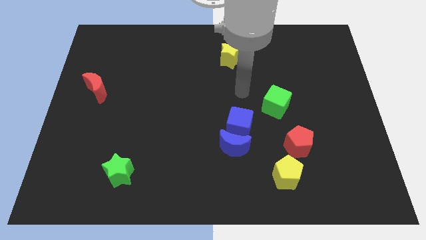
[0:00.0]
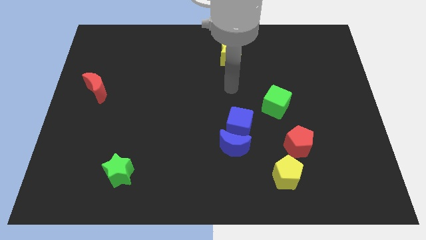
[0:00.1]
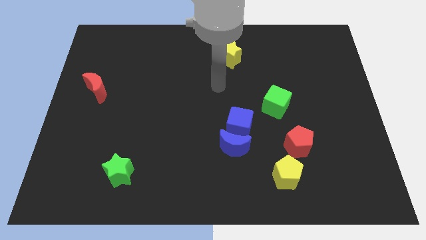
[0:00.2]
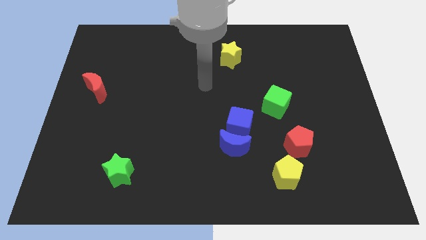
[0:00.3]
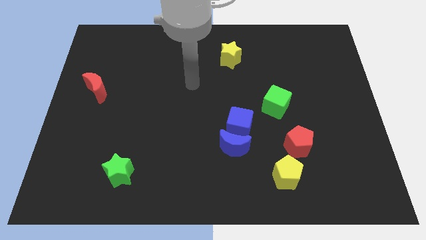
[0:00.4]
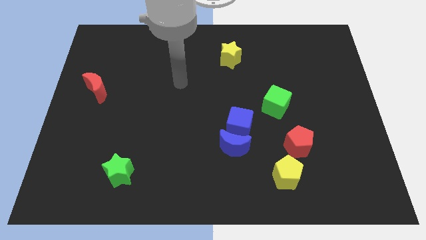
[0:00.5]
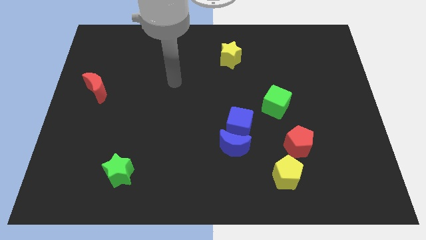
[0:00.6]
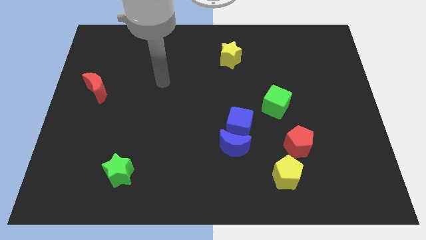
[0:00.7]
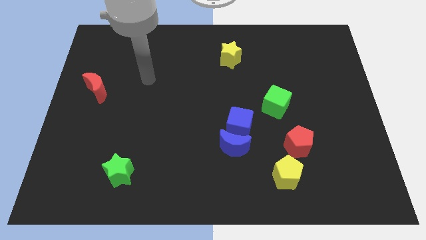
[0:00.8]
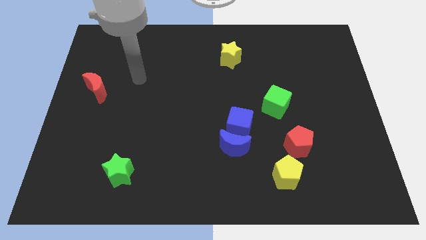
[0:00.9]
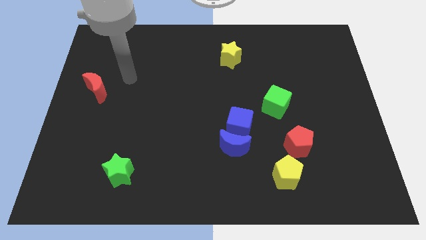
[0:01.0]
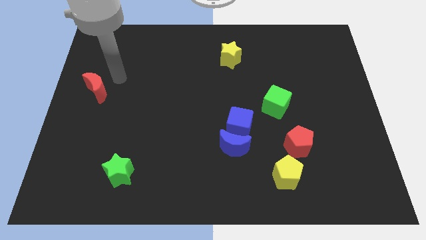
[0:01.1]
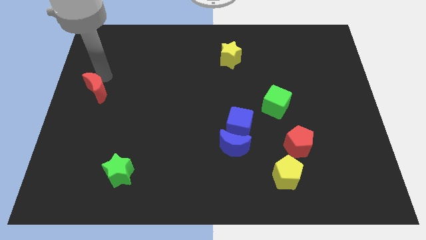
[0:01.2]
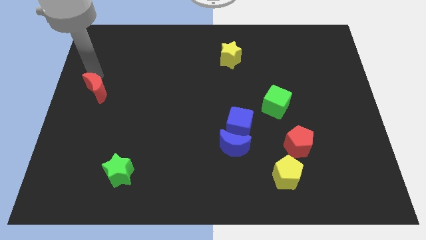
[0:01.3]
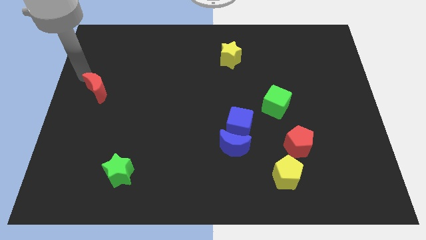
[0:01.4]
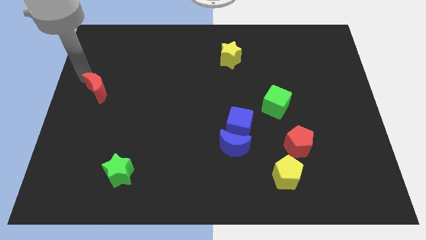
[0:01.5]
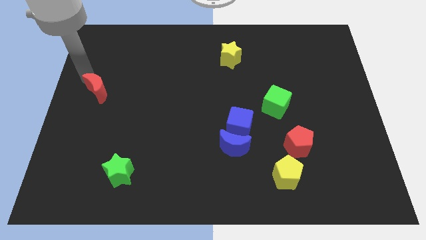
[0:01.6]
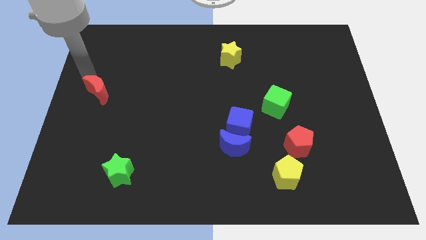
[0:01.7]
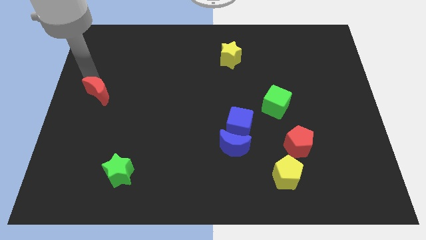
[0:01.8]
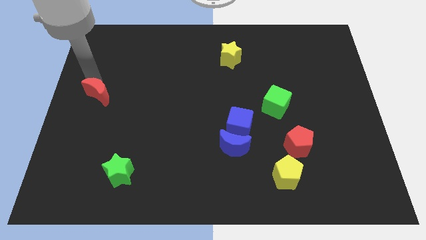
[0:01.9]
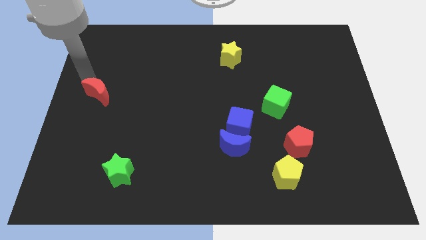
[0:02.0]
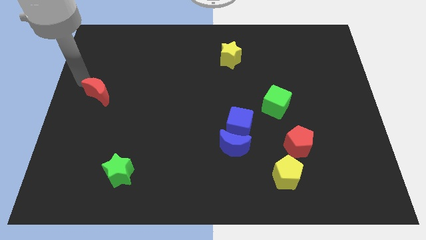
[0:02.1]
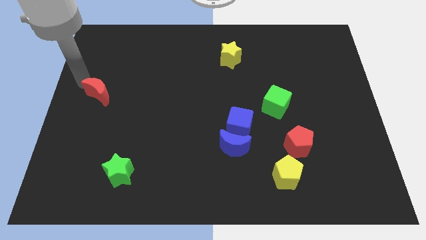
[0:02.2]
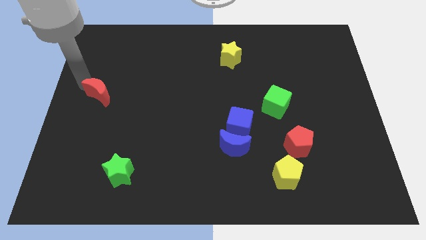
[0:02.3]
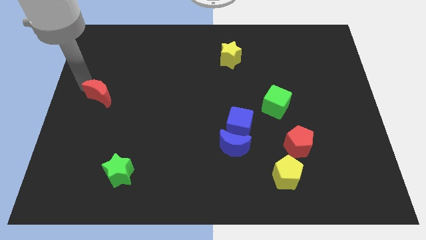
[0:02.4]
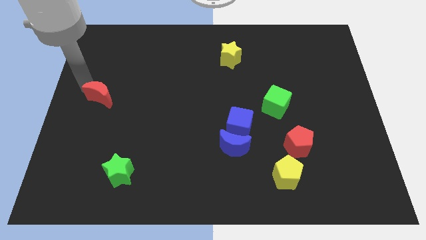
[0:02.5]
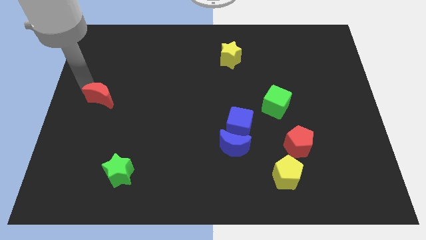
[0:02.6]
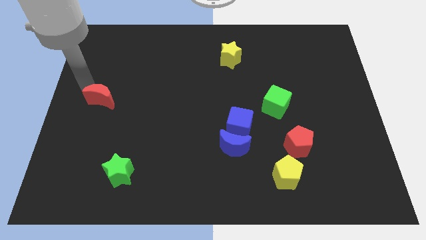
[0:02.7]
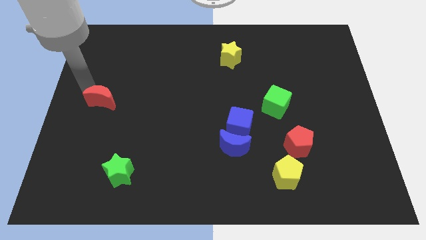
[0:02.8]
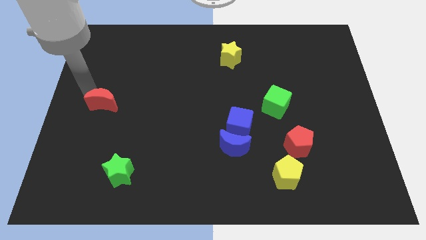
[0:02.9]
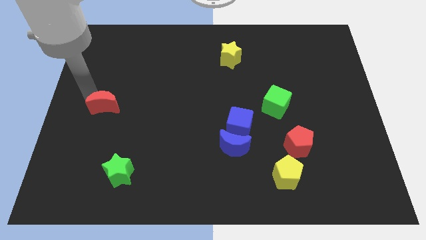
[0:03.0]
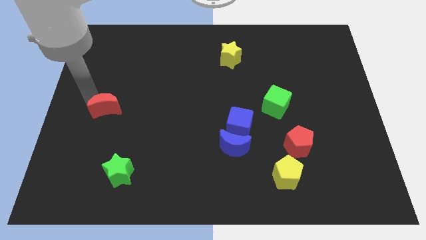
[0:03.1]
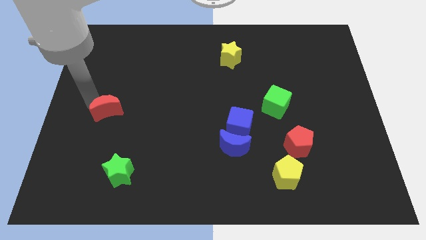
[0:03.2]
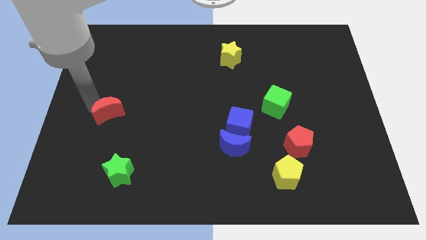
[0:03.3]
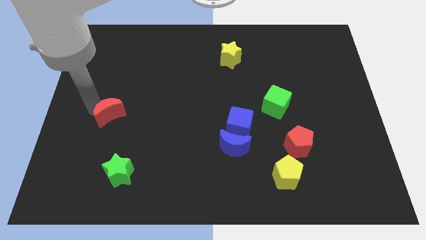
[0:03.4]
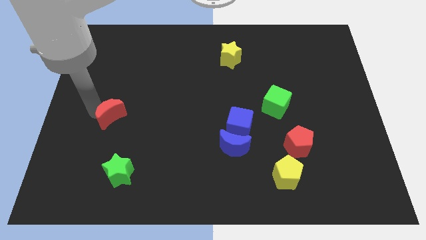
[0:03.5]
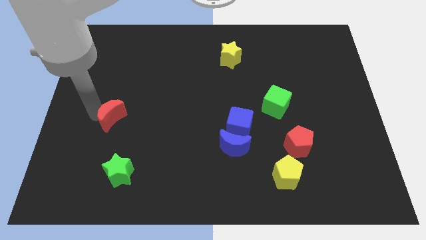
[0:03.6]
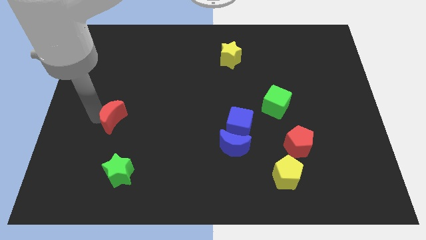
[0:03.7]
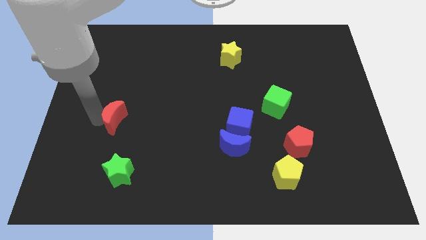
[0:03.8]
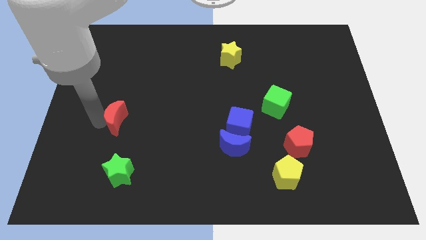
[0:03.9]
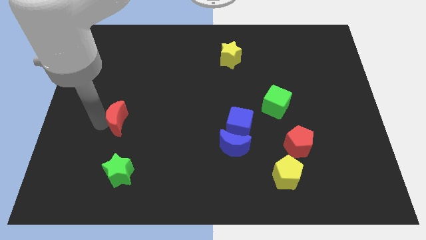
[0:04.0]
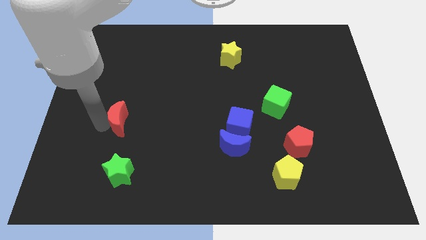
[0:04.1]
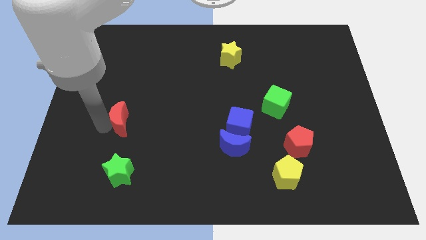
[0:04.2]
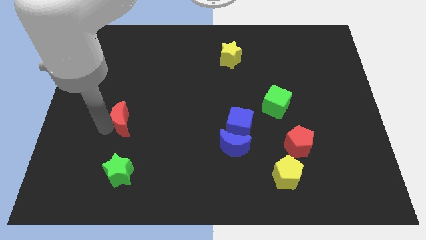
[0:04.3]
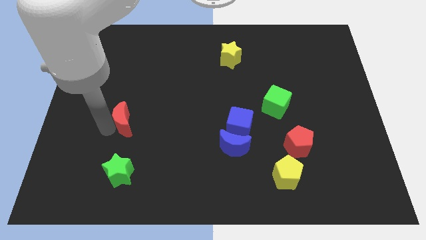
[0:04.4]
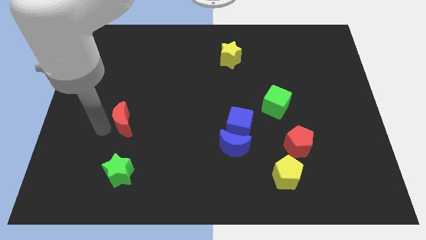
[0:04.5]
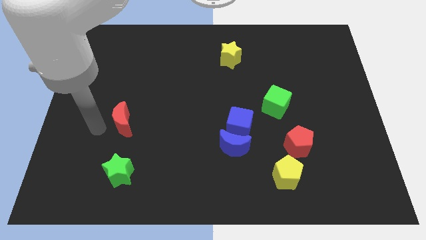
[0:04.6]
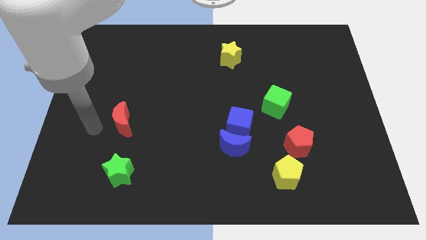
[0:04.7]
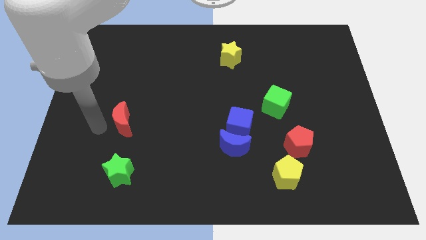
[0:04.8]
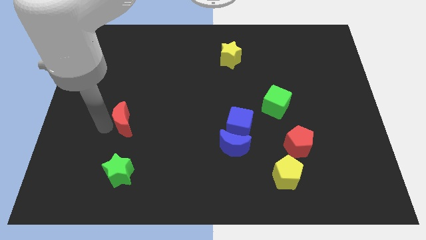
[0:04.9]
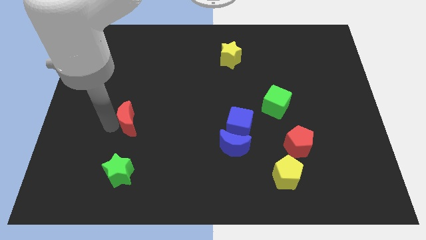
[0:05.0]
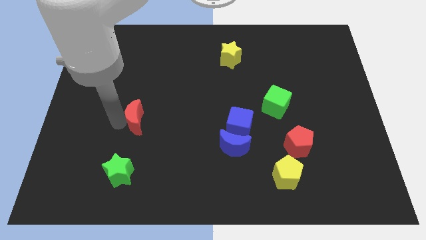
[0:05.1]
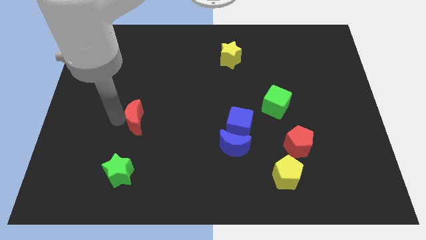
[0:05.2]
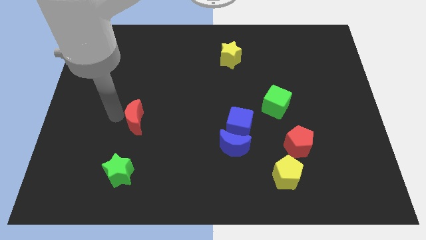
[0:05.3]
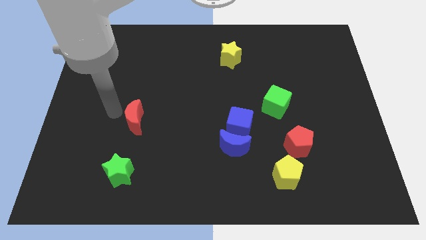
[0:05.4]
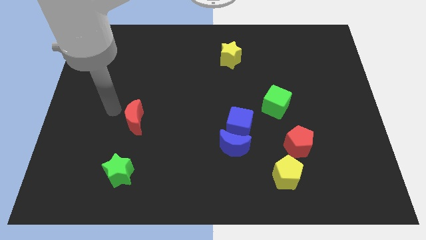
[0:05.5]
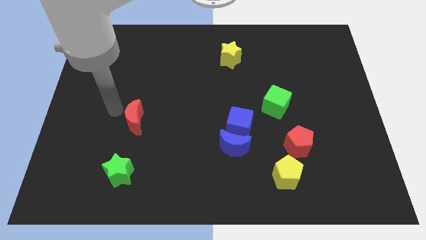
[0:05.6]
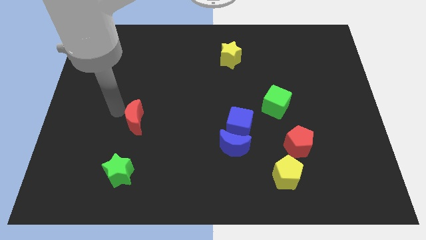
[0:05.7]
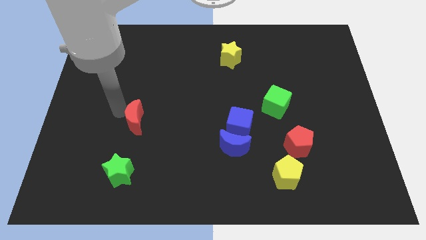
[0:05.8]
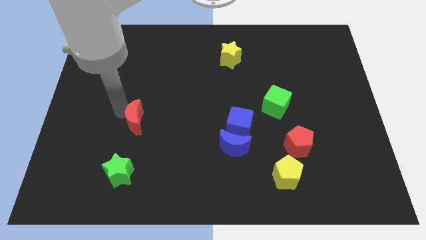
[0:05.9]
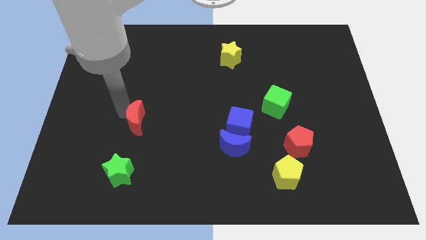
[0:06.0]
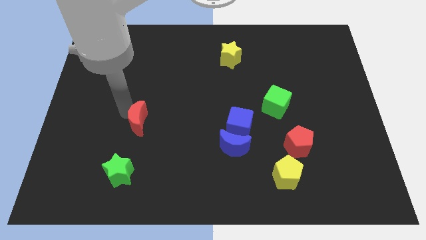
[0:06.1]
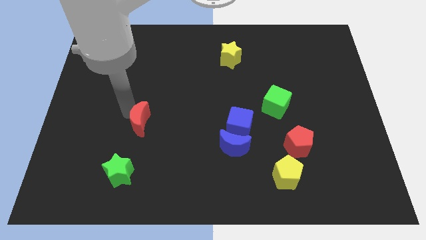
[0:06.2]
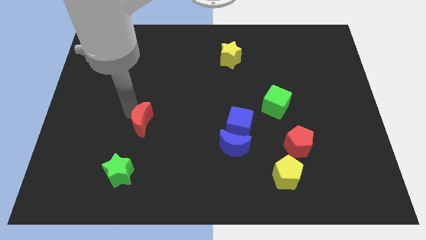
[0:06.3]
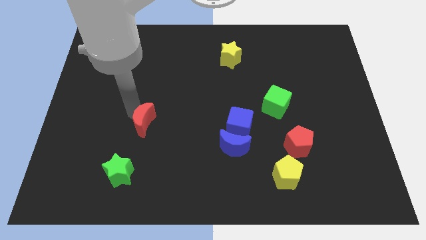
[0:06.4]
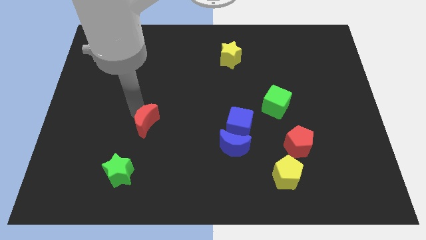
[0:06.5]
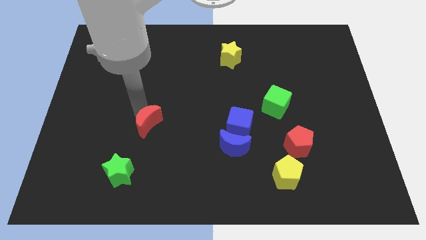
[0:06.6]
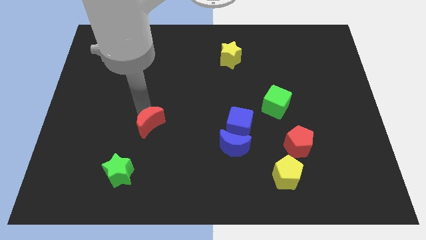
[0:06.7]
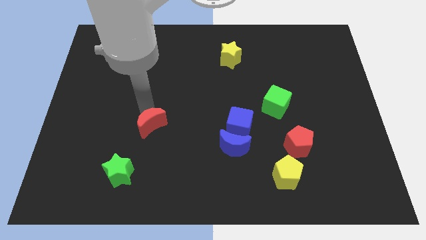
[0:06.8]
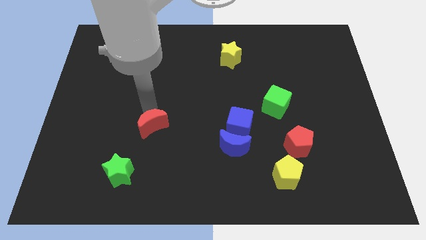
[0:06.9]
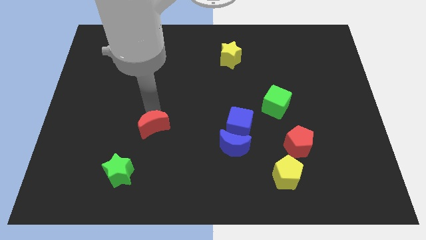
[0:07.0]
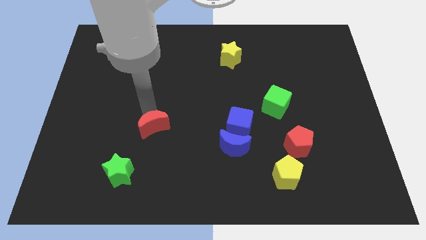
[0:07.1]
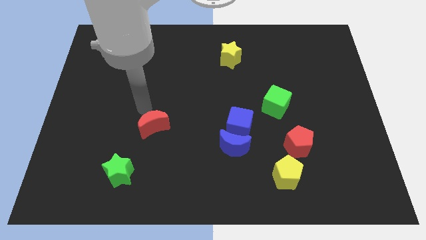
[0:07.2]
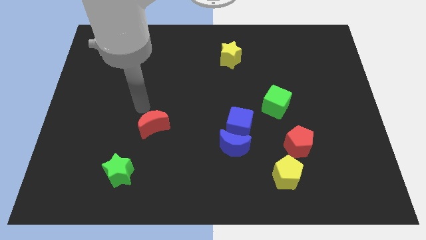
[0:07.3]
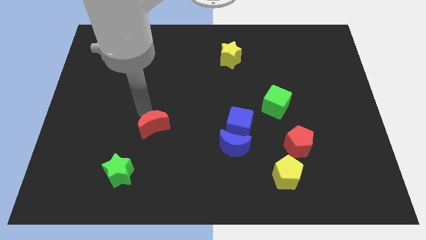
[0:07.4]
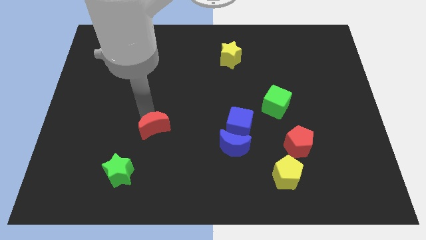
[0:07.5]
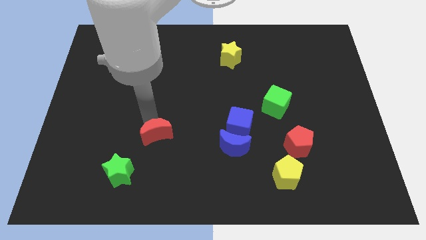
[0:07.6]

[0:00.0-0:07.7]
push the red moon diagonally down and to the right

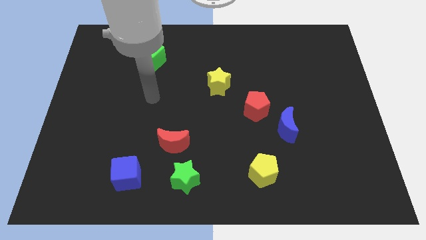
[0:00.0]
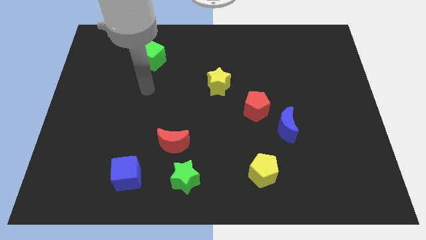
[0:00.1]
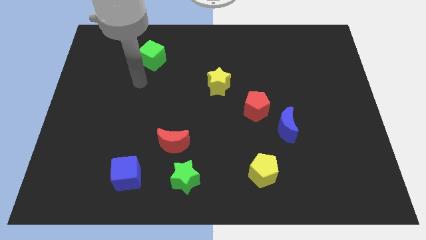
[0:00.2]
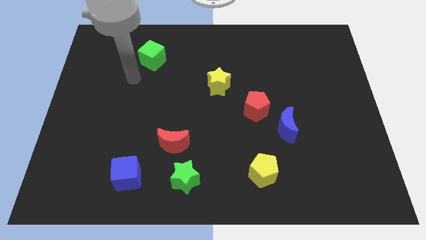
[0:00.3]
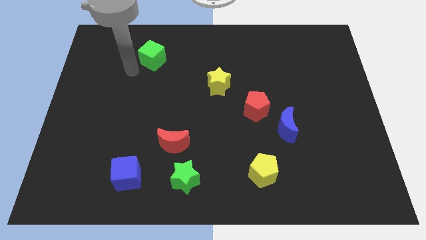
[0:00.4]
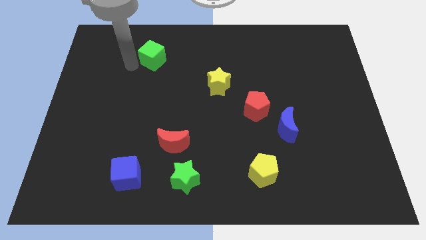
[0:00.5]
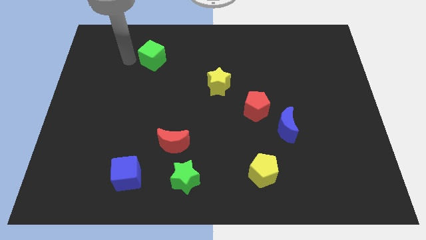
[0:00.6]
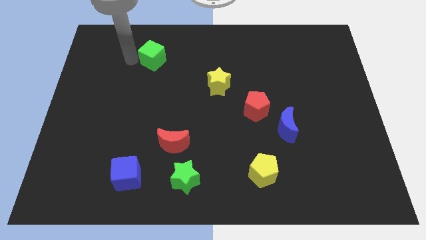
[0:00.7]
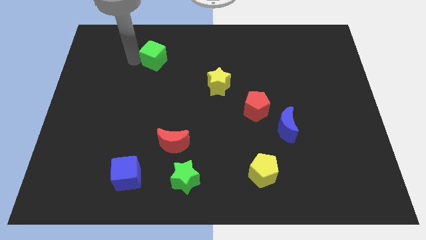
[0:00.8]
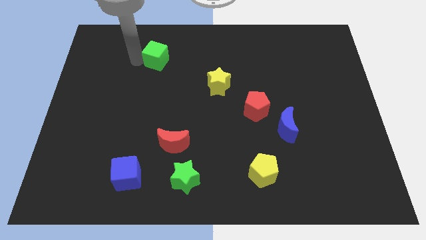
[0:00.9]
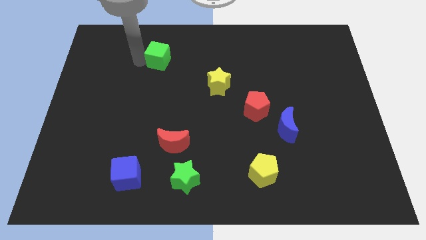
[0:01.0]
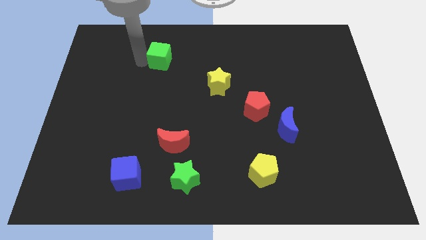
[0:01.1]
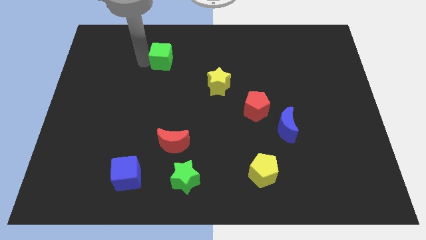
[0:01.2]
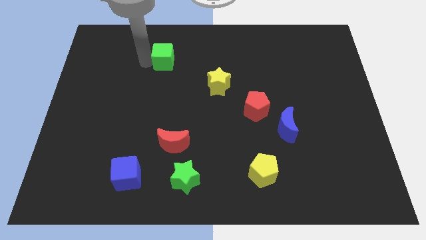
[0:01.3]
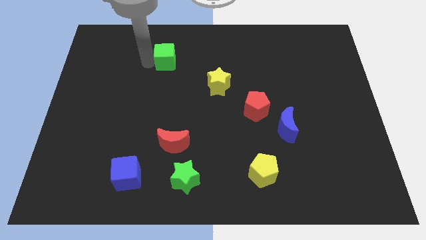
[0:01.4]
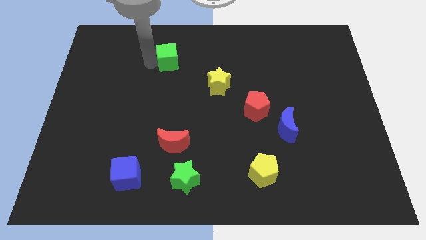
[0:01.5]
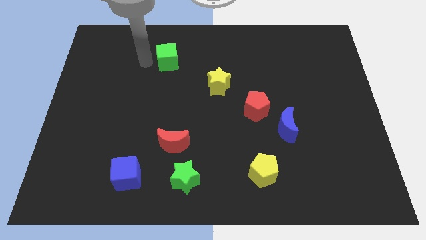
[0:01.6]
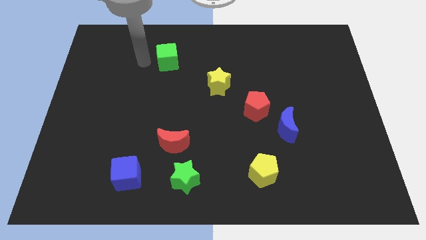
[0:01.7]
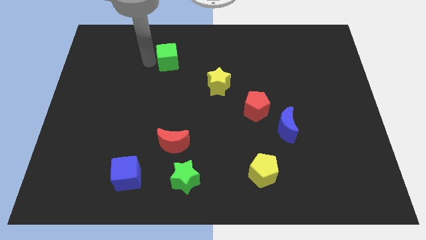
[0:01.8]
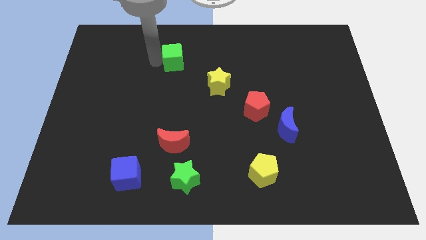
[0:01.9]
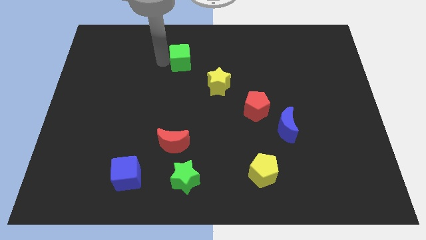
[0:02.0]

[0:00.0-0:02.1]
slide the green cube a bit right
